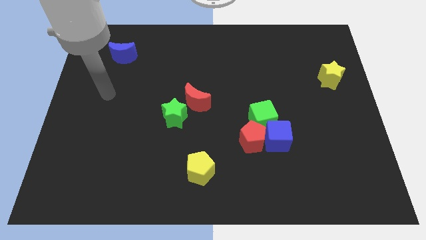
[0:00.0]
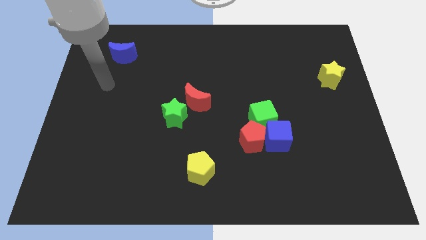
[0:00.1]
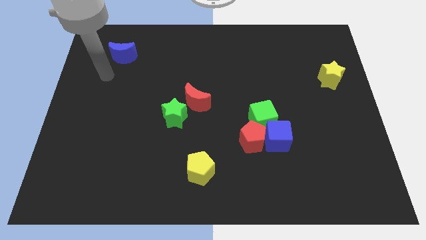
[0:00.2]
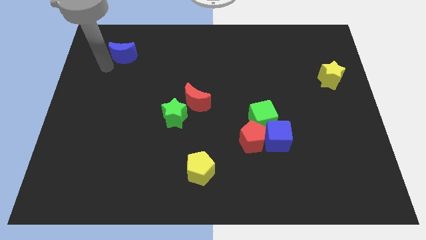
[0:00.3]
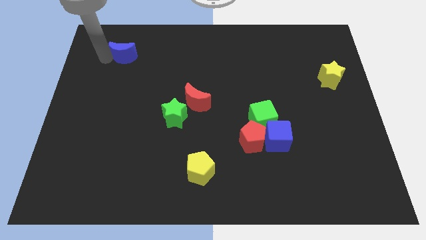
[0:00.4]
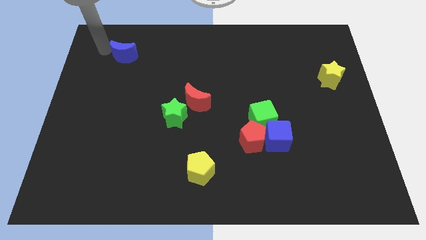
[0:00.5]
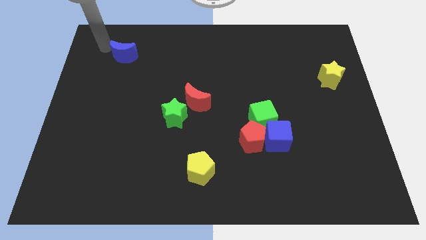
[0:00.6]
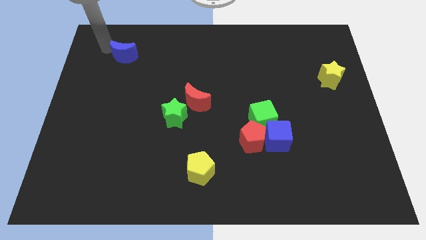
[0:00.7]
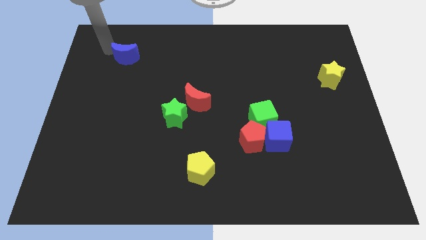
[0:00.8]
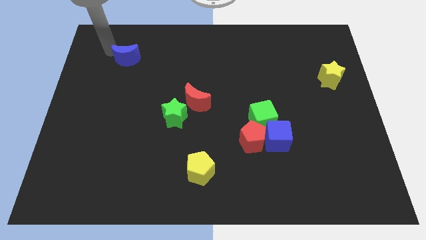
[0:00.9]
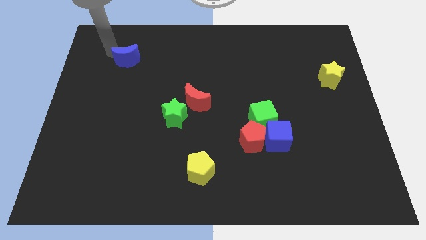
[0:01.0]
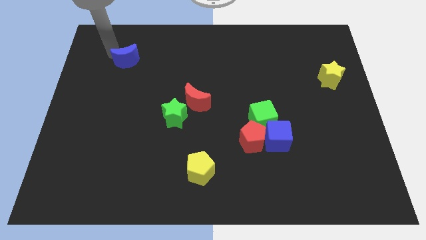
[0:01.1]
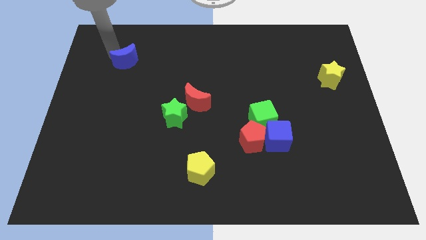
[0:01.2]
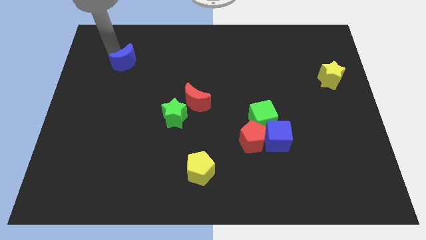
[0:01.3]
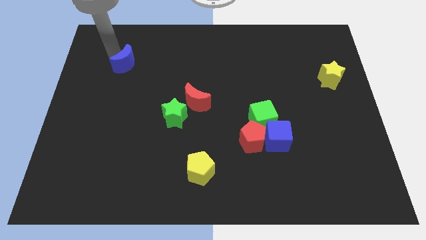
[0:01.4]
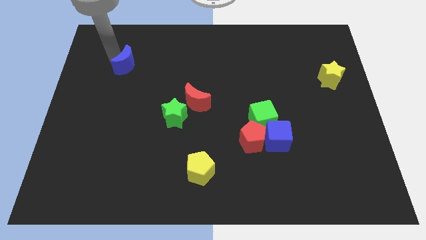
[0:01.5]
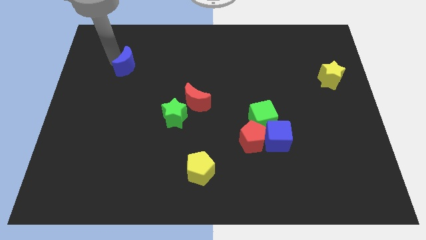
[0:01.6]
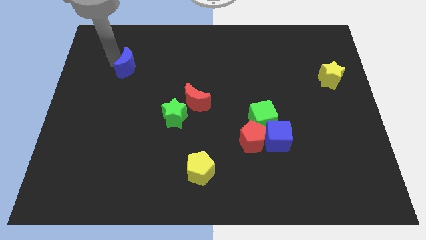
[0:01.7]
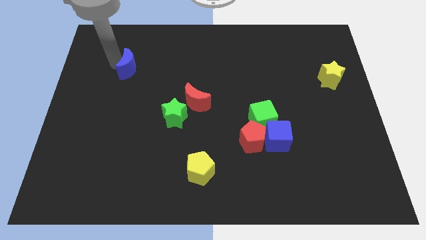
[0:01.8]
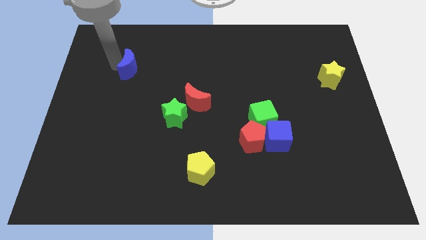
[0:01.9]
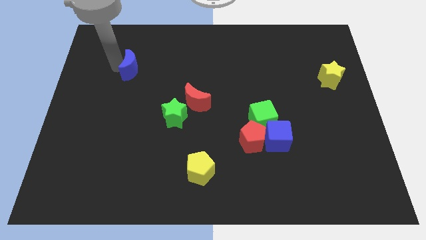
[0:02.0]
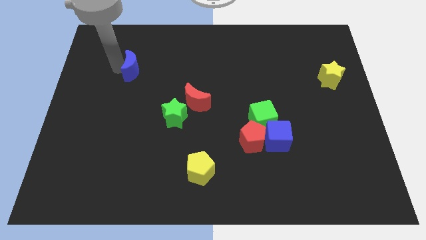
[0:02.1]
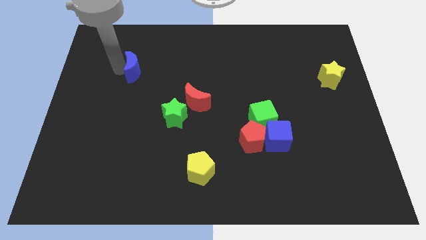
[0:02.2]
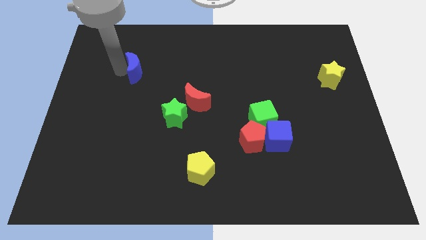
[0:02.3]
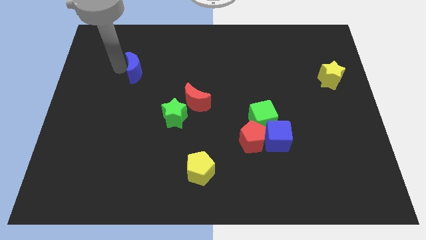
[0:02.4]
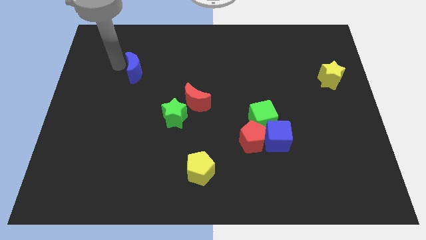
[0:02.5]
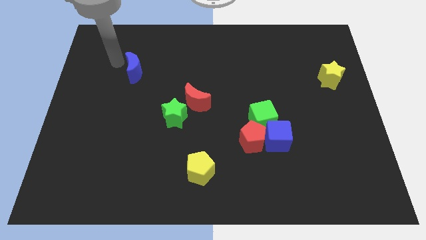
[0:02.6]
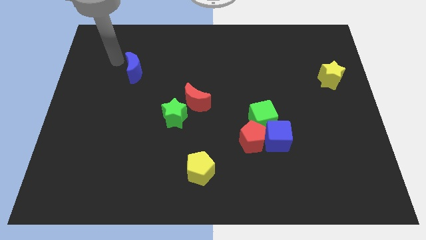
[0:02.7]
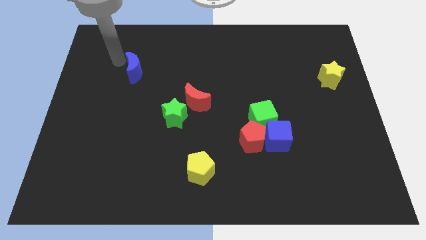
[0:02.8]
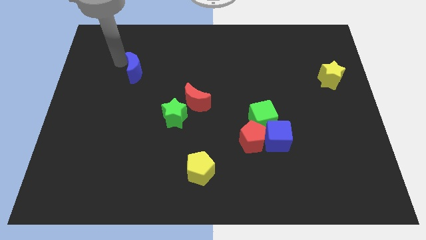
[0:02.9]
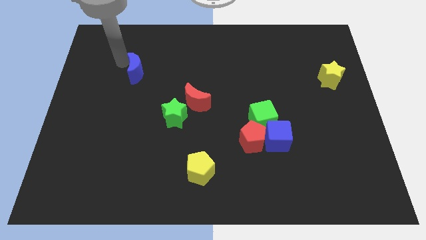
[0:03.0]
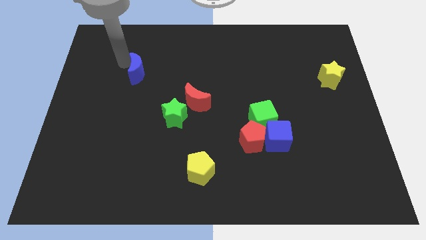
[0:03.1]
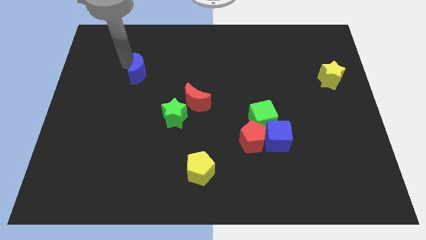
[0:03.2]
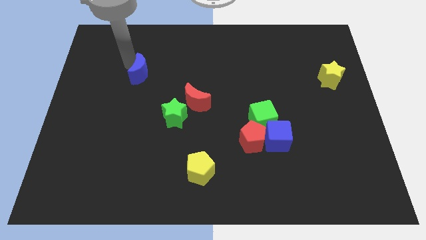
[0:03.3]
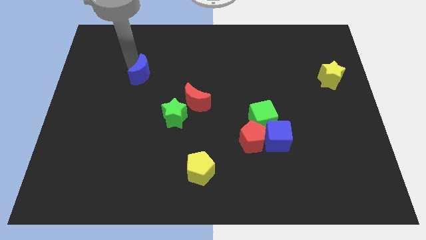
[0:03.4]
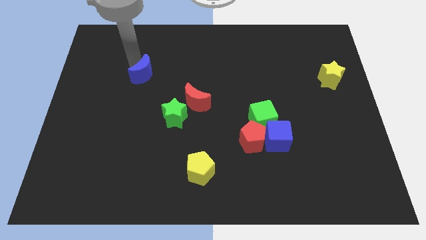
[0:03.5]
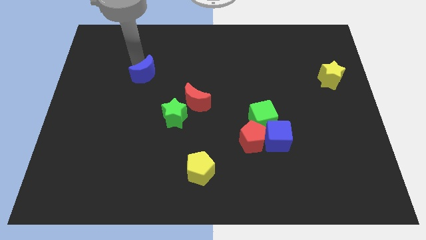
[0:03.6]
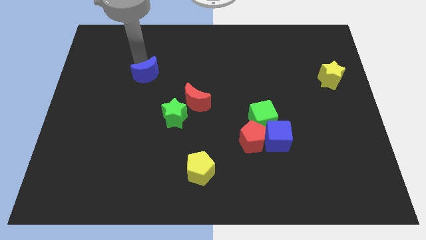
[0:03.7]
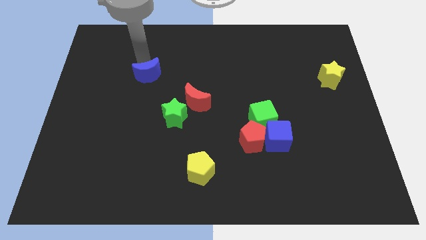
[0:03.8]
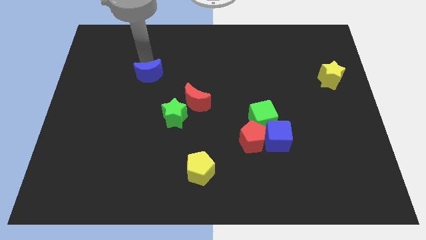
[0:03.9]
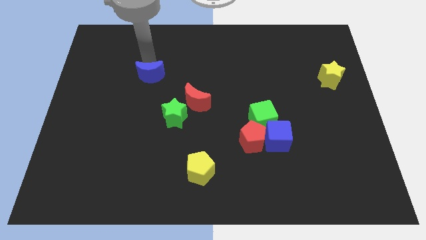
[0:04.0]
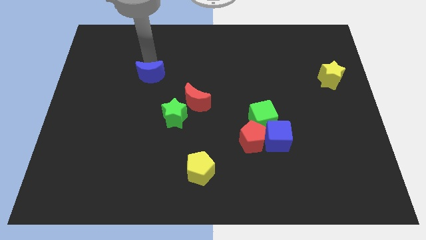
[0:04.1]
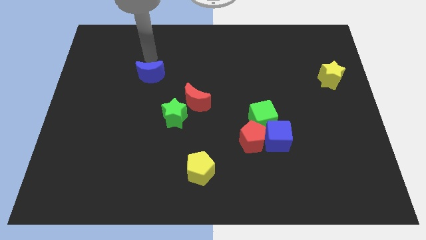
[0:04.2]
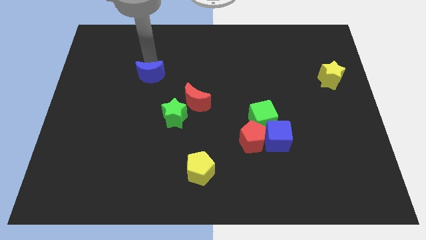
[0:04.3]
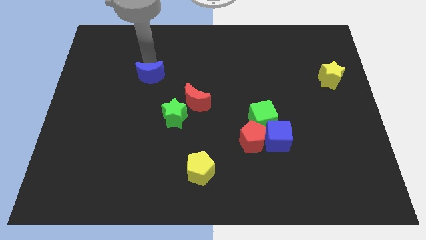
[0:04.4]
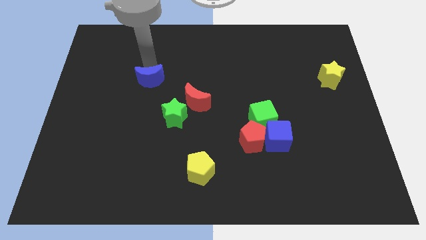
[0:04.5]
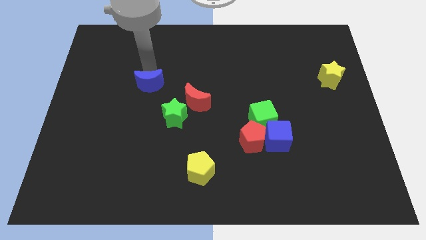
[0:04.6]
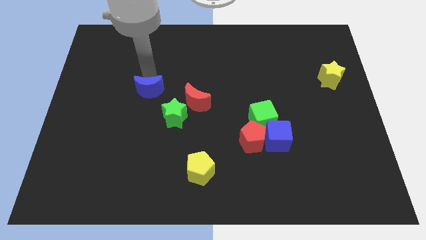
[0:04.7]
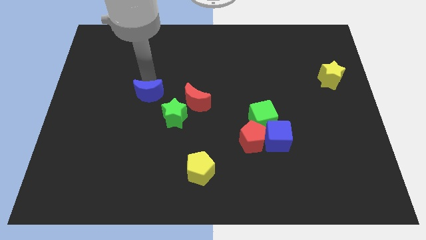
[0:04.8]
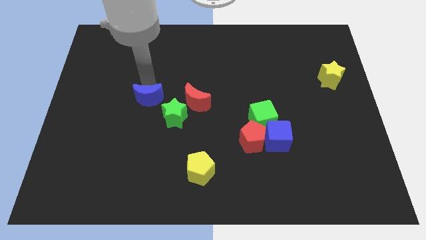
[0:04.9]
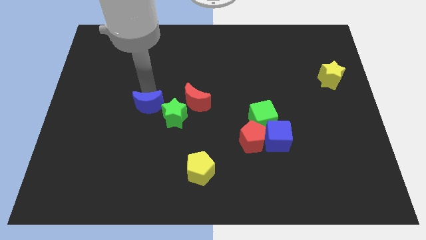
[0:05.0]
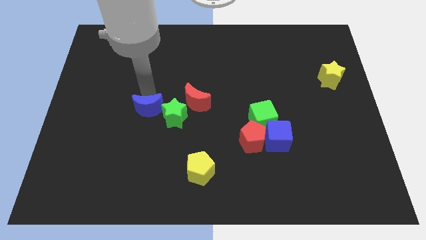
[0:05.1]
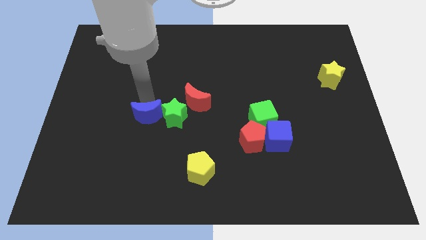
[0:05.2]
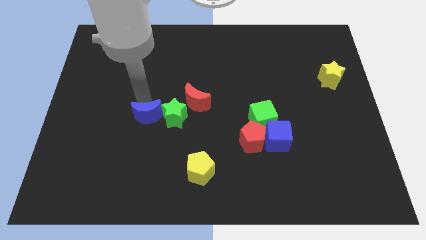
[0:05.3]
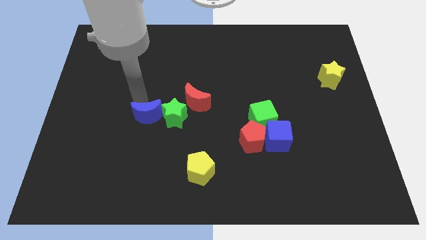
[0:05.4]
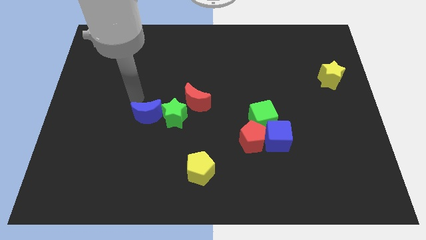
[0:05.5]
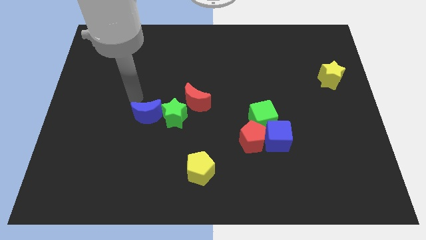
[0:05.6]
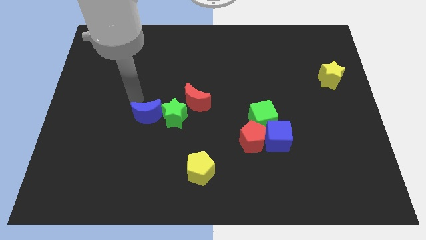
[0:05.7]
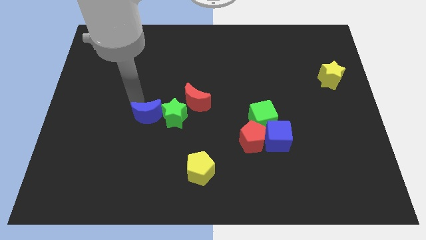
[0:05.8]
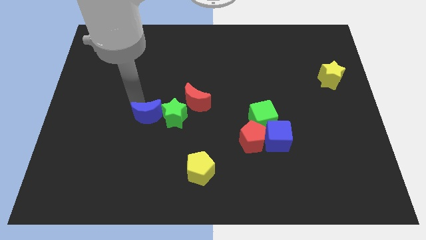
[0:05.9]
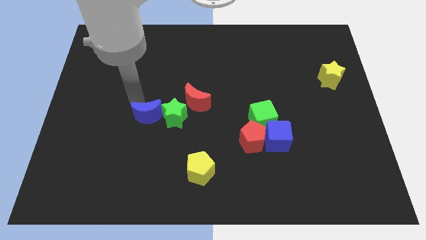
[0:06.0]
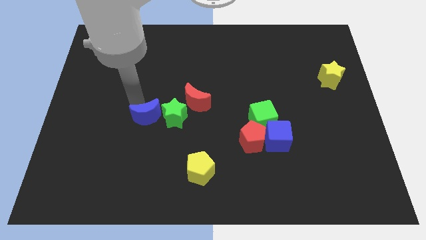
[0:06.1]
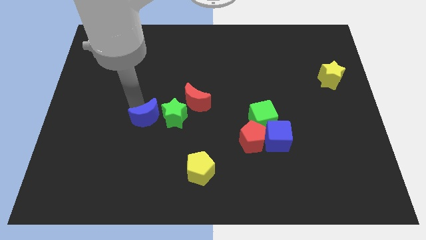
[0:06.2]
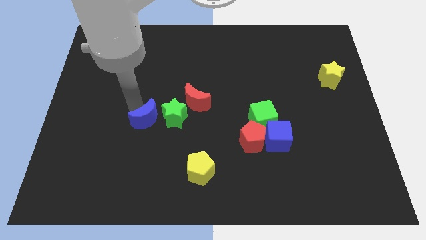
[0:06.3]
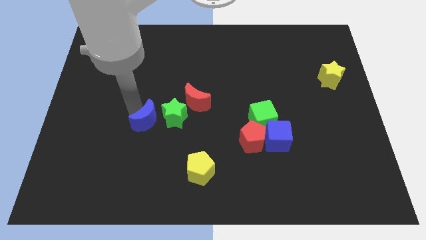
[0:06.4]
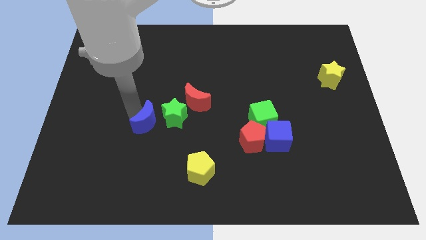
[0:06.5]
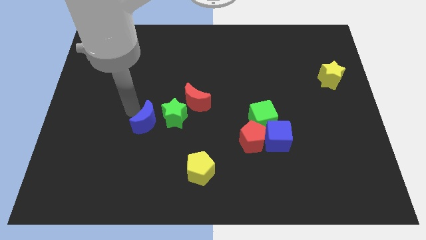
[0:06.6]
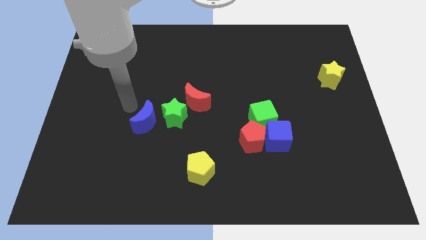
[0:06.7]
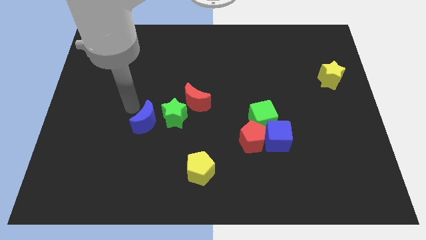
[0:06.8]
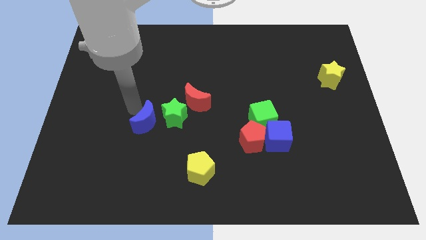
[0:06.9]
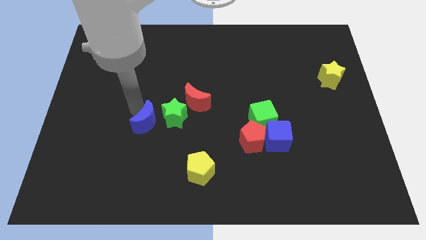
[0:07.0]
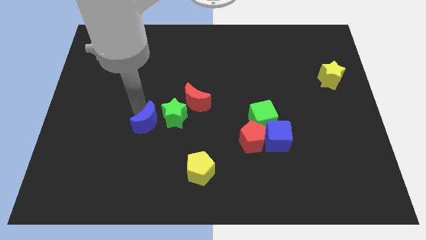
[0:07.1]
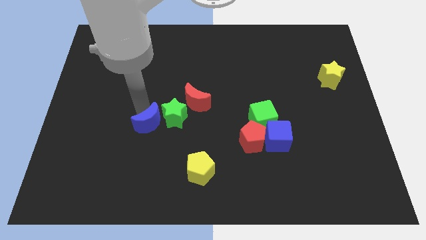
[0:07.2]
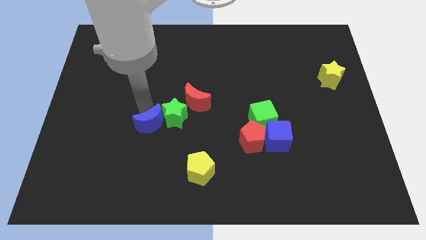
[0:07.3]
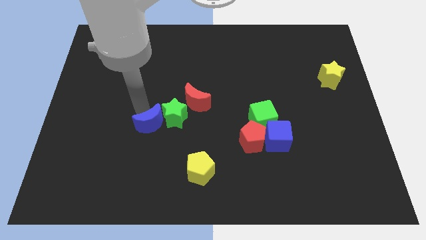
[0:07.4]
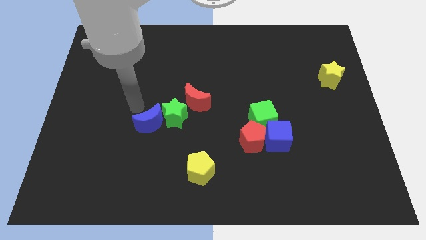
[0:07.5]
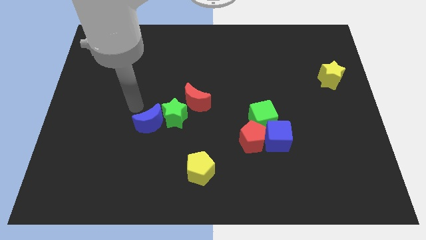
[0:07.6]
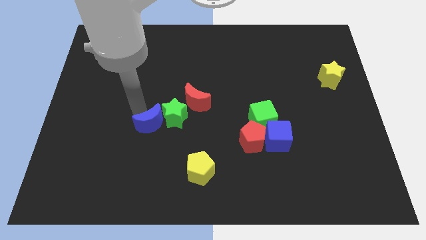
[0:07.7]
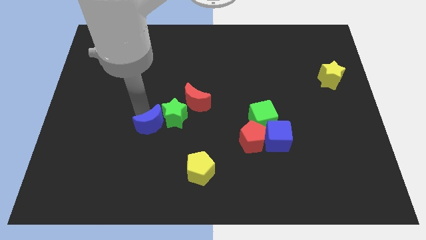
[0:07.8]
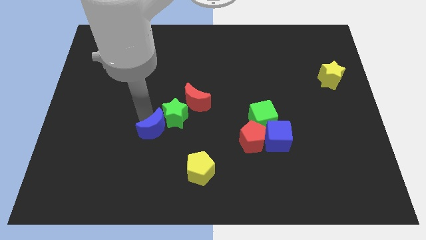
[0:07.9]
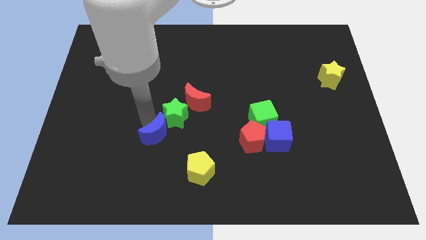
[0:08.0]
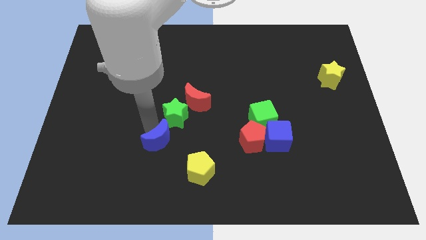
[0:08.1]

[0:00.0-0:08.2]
push the blue moon diagonally up and to the left of the yellow pentagon
